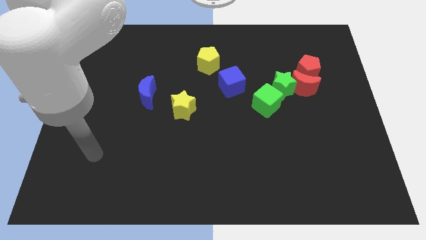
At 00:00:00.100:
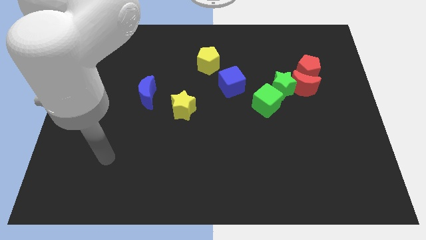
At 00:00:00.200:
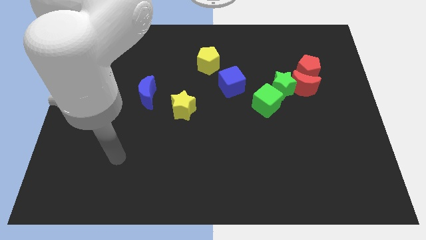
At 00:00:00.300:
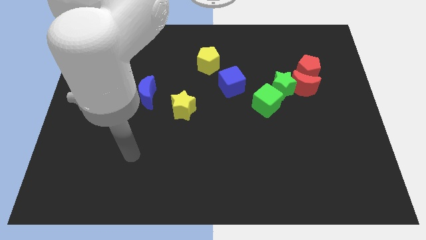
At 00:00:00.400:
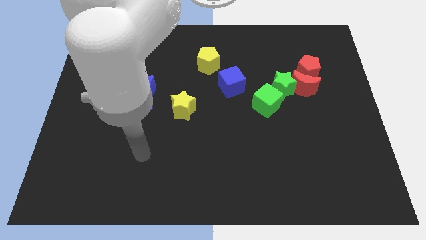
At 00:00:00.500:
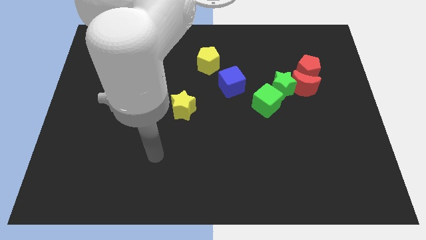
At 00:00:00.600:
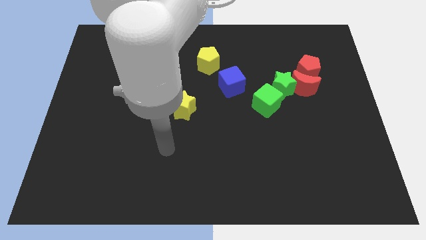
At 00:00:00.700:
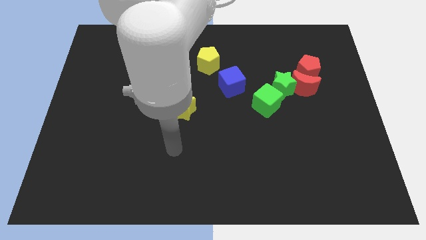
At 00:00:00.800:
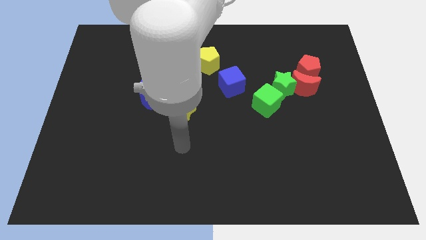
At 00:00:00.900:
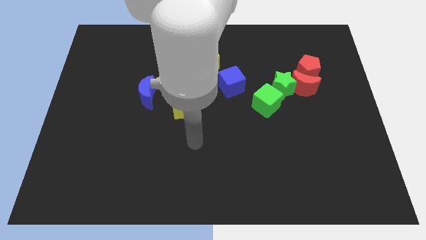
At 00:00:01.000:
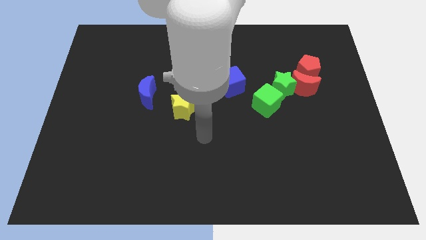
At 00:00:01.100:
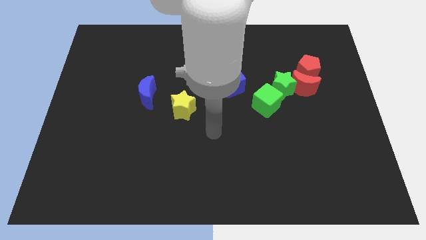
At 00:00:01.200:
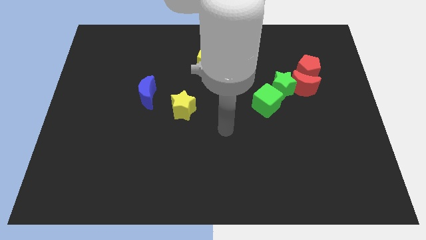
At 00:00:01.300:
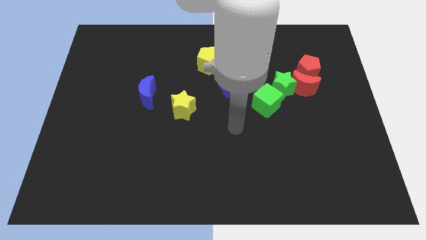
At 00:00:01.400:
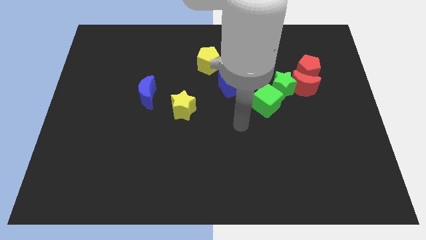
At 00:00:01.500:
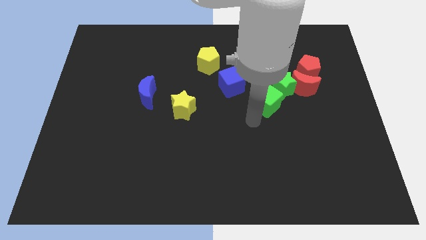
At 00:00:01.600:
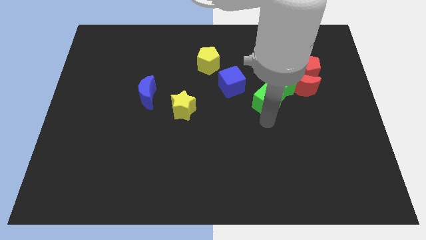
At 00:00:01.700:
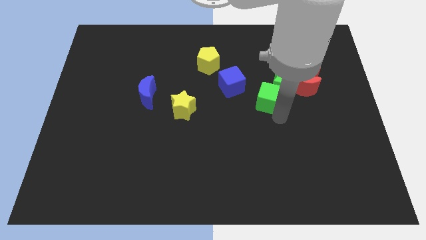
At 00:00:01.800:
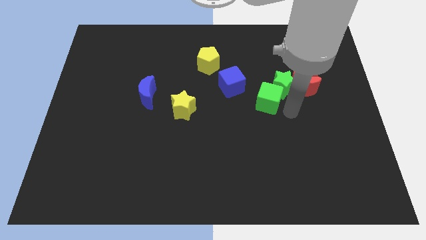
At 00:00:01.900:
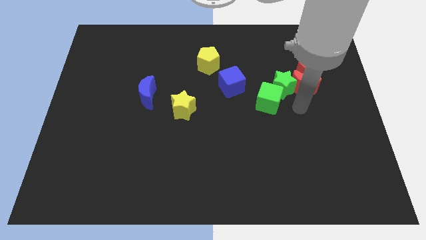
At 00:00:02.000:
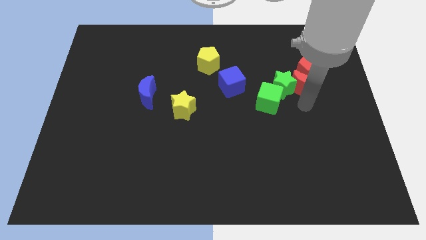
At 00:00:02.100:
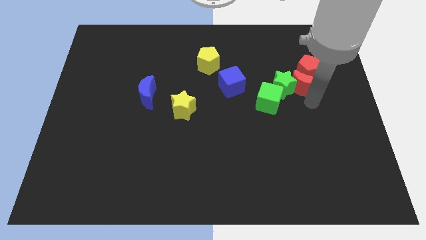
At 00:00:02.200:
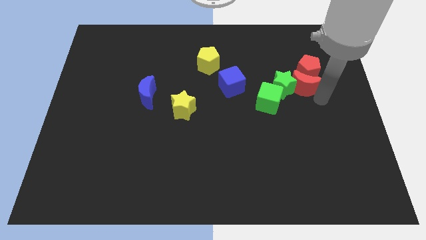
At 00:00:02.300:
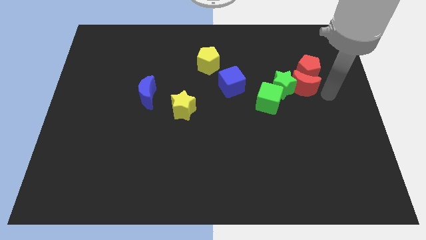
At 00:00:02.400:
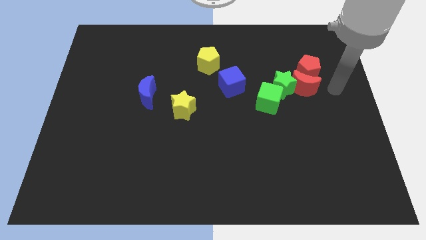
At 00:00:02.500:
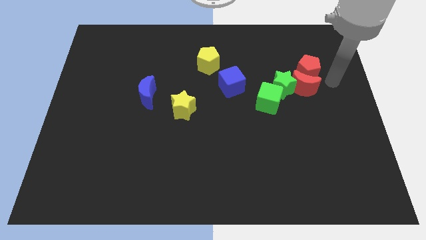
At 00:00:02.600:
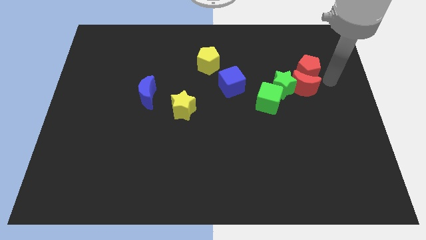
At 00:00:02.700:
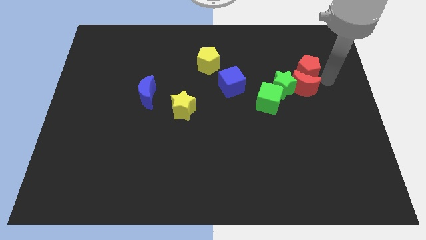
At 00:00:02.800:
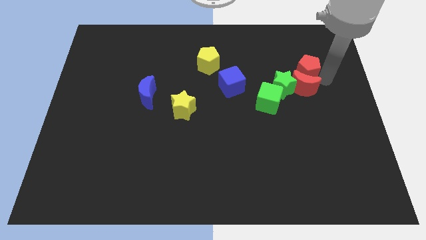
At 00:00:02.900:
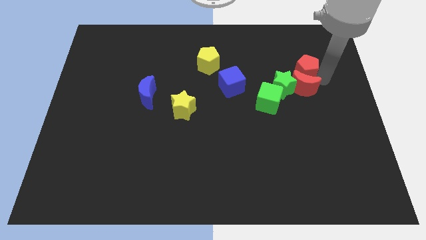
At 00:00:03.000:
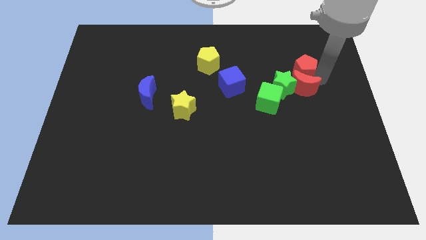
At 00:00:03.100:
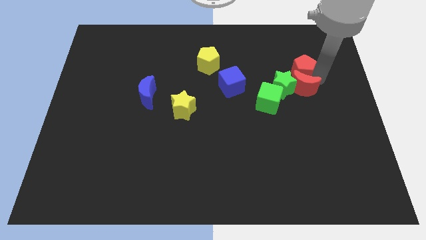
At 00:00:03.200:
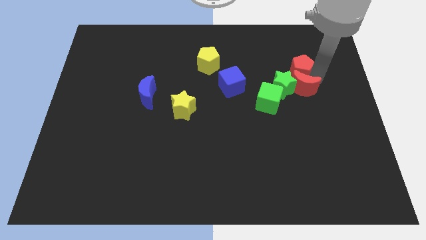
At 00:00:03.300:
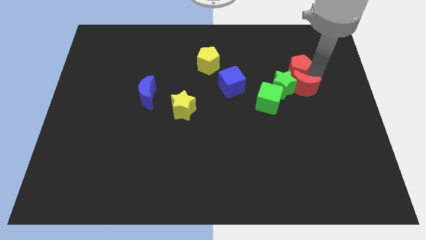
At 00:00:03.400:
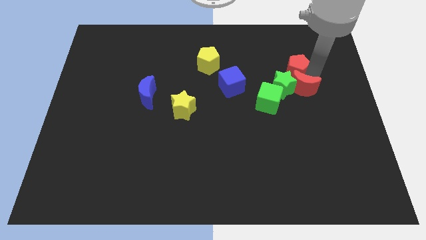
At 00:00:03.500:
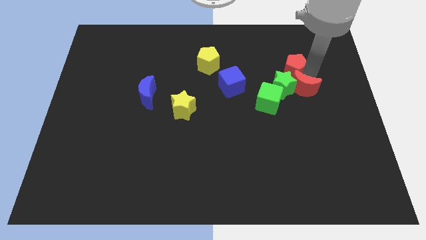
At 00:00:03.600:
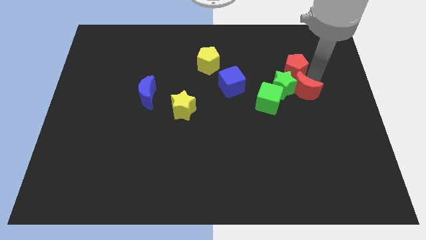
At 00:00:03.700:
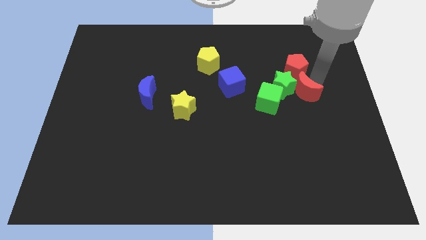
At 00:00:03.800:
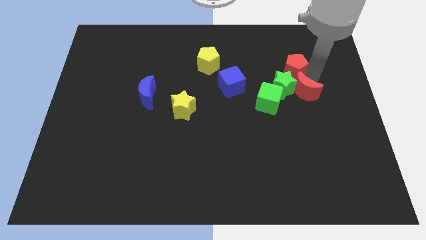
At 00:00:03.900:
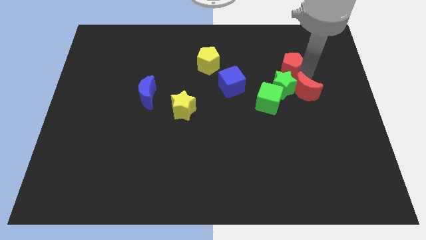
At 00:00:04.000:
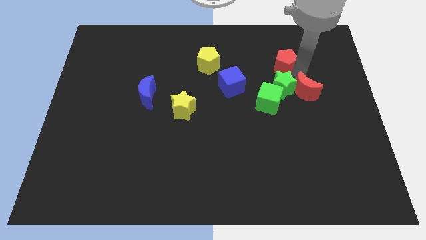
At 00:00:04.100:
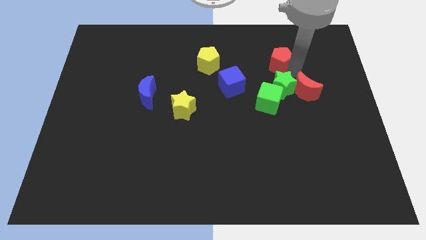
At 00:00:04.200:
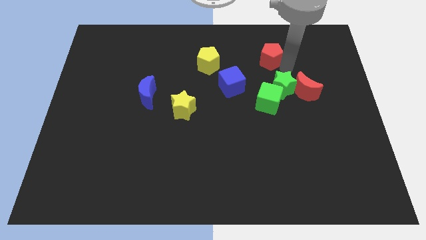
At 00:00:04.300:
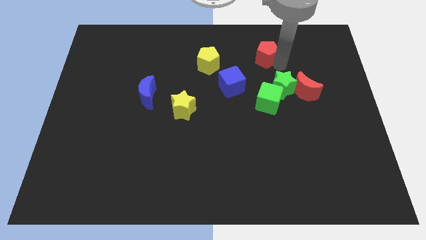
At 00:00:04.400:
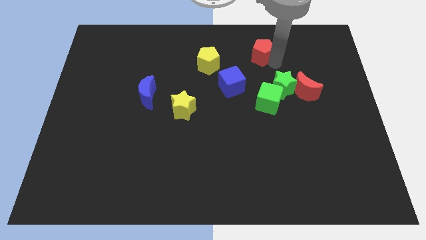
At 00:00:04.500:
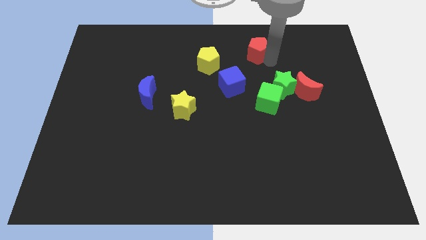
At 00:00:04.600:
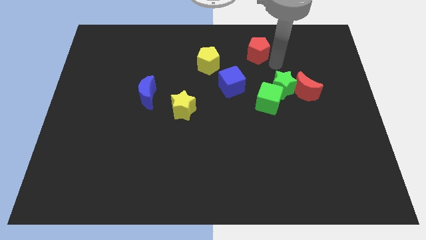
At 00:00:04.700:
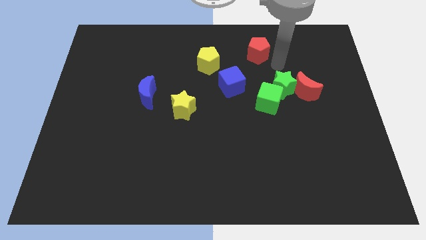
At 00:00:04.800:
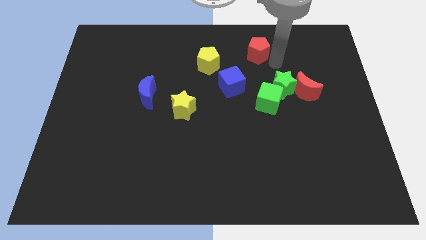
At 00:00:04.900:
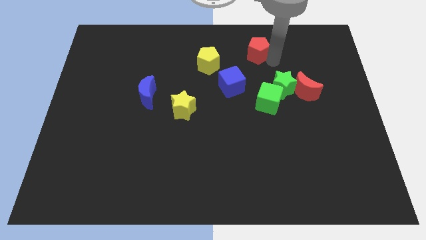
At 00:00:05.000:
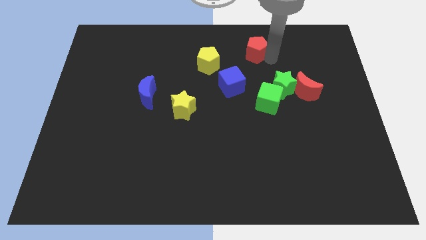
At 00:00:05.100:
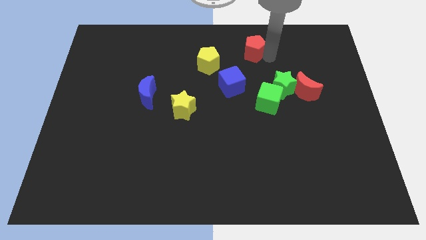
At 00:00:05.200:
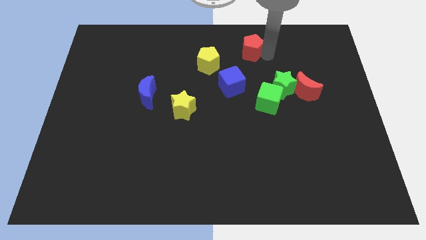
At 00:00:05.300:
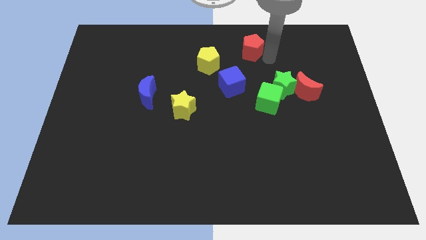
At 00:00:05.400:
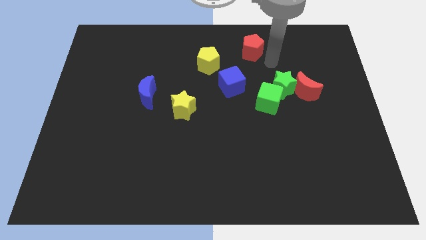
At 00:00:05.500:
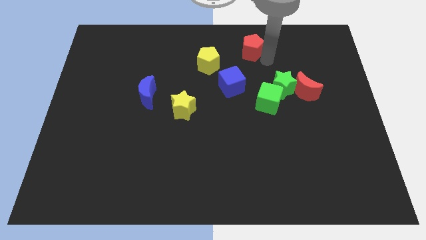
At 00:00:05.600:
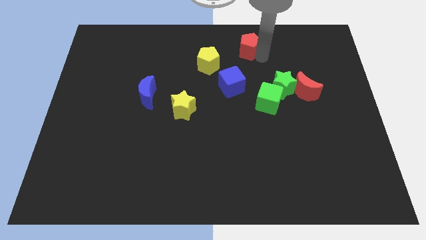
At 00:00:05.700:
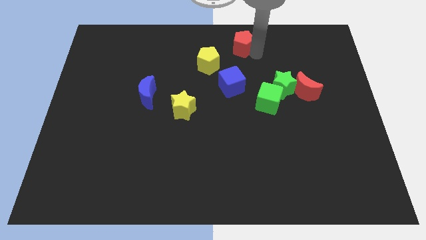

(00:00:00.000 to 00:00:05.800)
slide the red pentagon to the top

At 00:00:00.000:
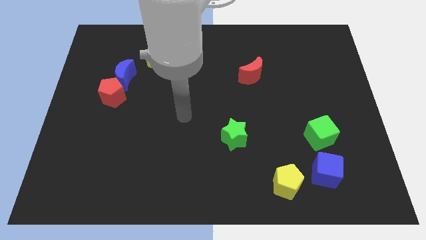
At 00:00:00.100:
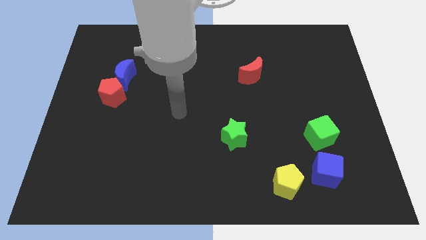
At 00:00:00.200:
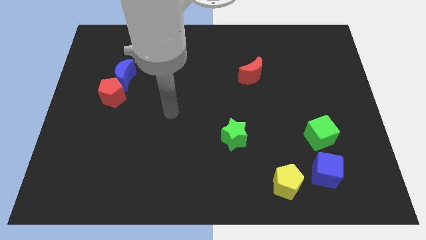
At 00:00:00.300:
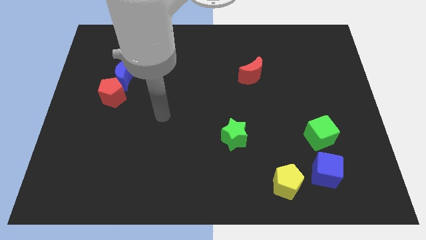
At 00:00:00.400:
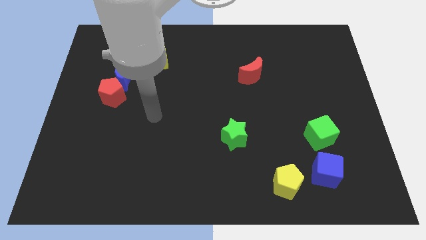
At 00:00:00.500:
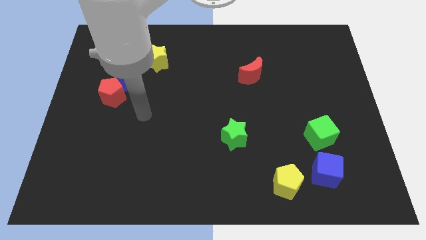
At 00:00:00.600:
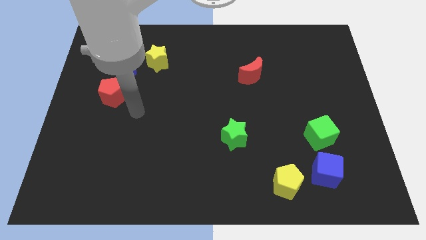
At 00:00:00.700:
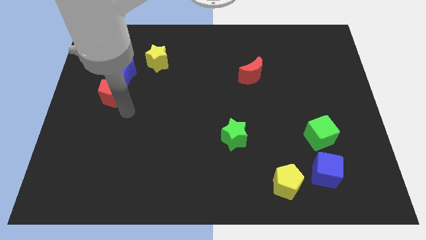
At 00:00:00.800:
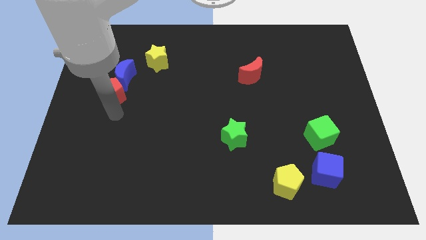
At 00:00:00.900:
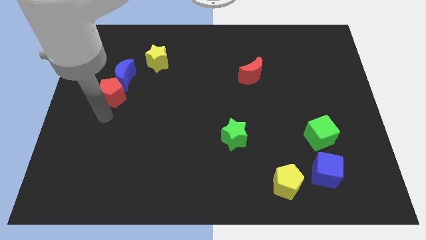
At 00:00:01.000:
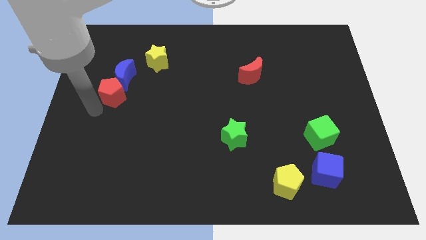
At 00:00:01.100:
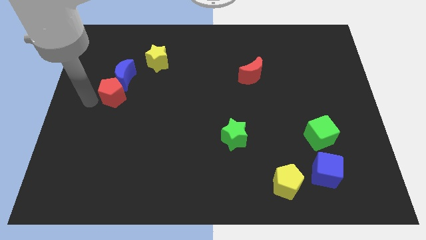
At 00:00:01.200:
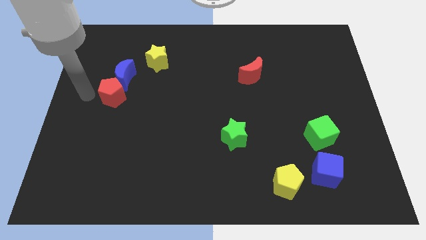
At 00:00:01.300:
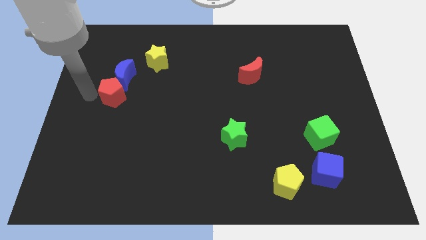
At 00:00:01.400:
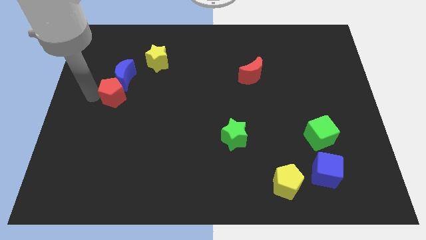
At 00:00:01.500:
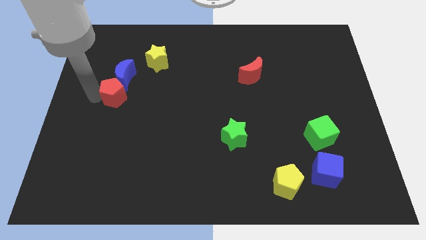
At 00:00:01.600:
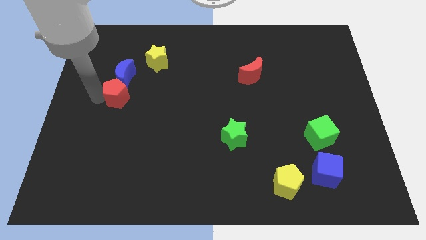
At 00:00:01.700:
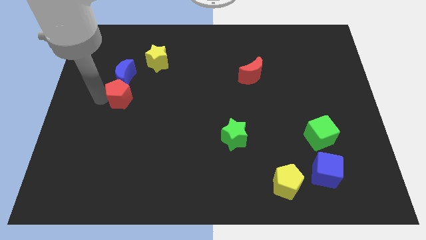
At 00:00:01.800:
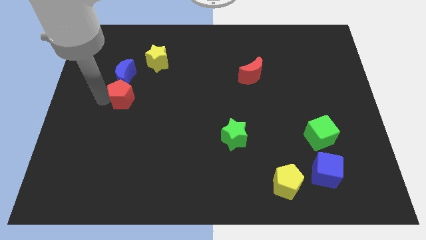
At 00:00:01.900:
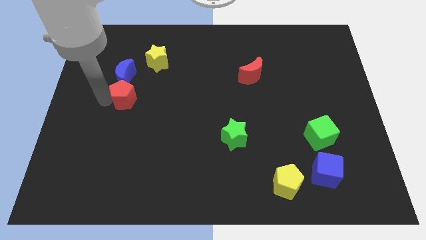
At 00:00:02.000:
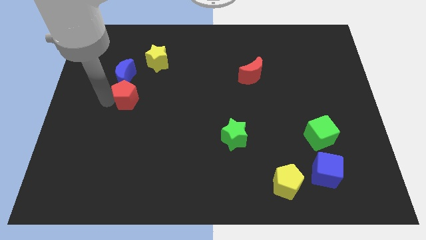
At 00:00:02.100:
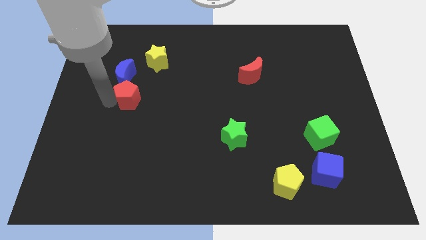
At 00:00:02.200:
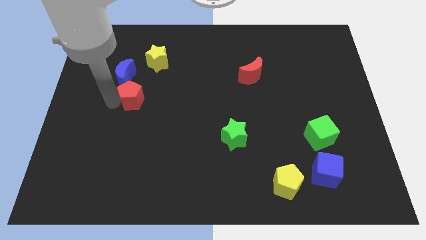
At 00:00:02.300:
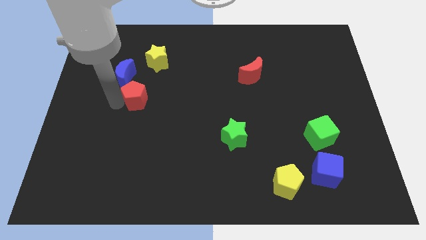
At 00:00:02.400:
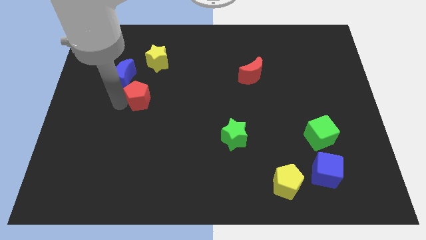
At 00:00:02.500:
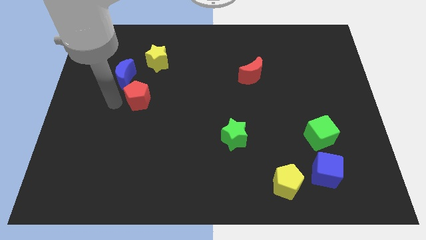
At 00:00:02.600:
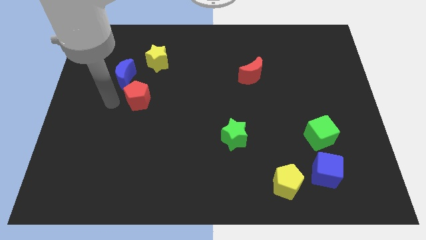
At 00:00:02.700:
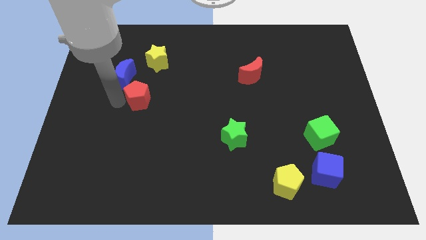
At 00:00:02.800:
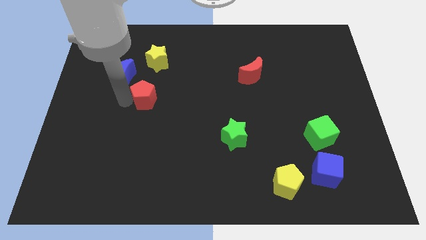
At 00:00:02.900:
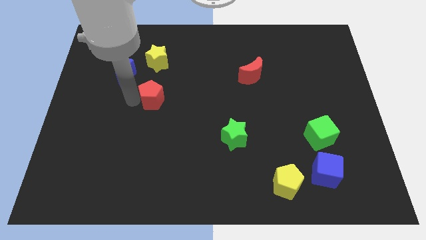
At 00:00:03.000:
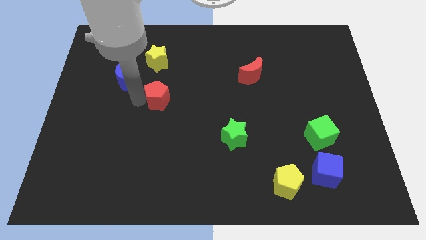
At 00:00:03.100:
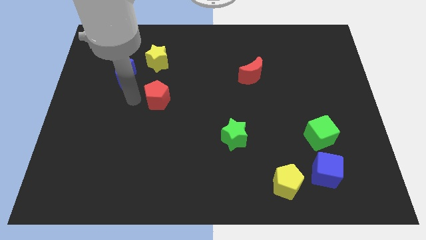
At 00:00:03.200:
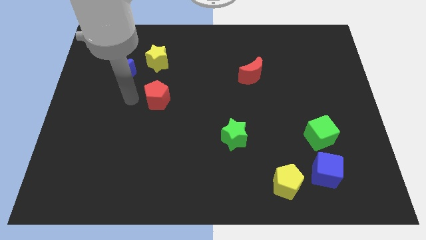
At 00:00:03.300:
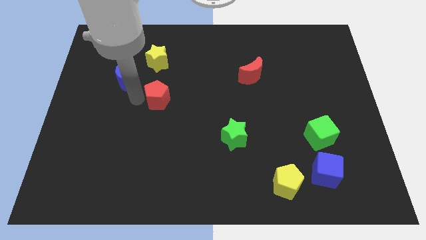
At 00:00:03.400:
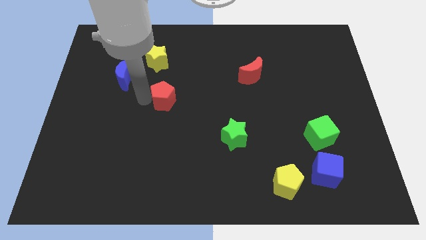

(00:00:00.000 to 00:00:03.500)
move the red pentagon to the middle of the board
